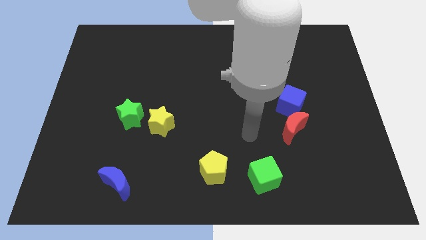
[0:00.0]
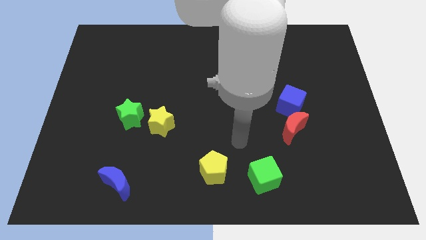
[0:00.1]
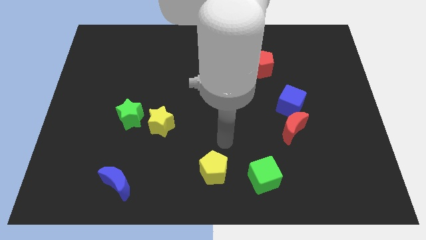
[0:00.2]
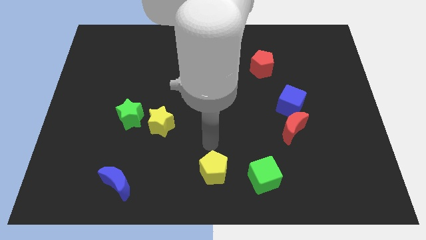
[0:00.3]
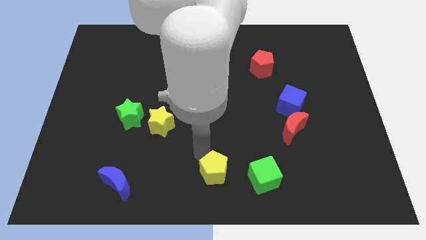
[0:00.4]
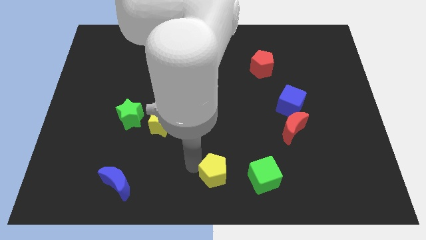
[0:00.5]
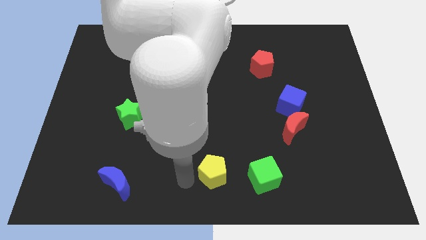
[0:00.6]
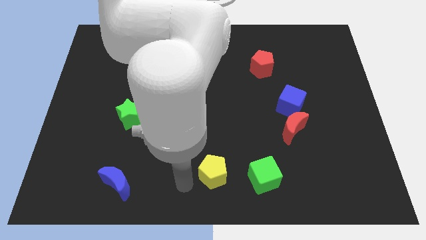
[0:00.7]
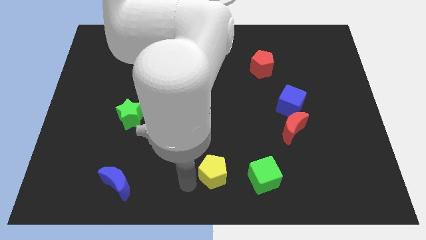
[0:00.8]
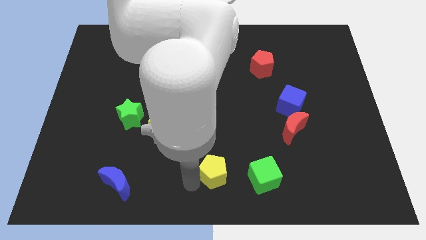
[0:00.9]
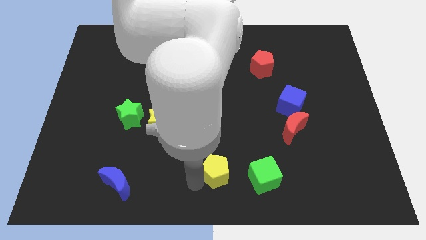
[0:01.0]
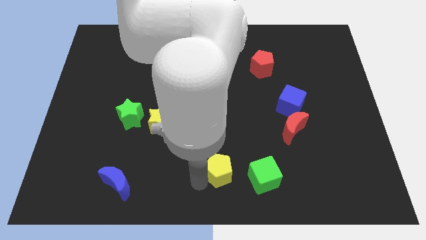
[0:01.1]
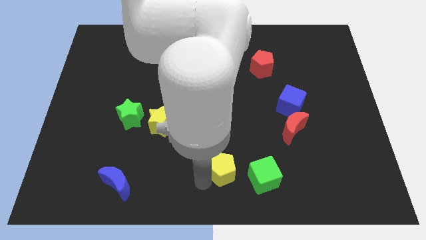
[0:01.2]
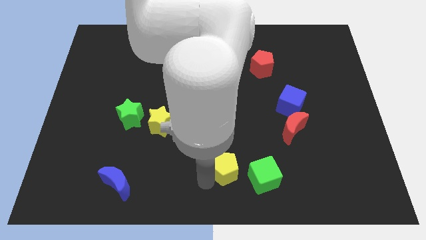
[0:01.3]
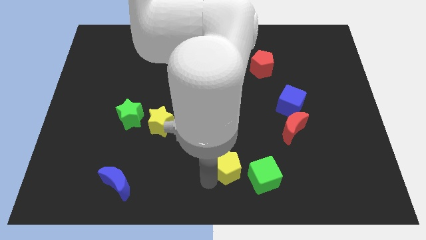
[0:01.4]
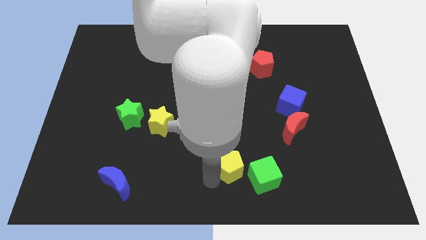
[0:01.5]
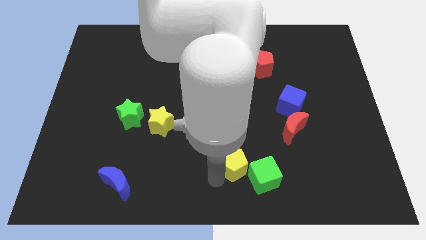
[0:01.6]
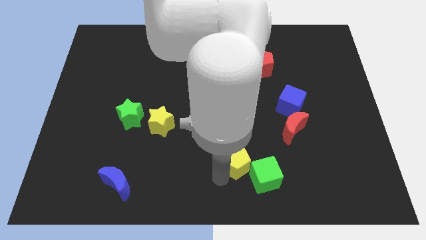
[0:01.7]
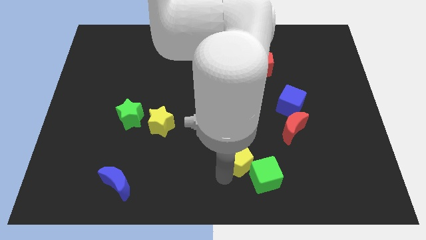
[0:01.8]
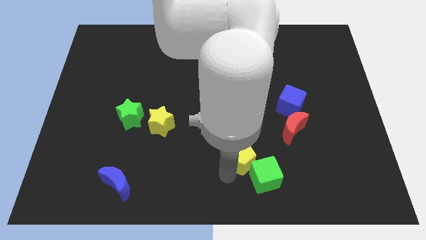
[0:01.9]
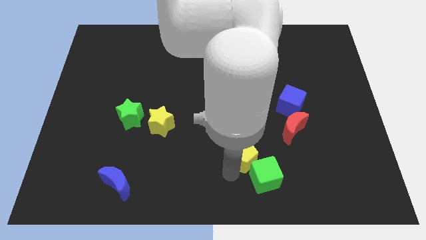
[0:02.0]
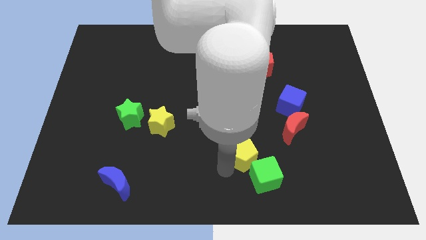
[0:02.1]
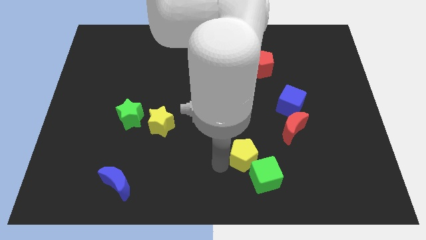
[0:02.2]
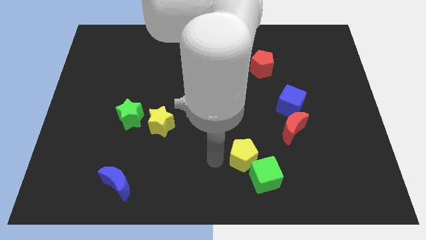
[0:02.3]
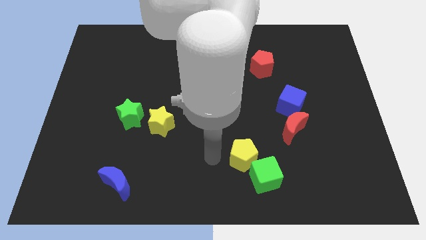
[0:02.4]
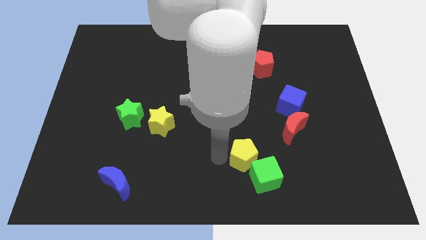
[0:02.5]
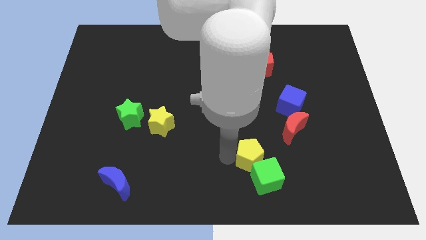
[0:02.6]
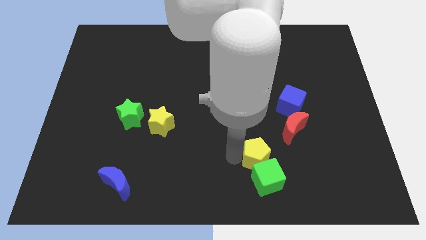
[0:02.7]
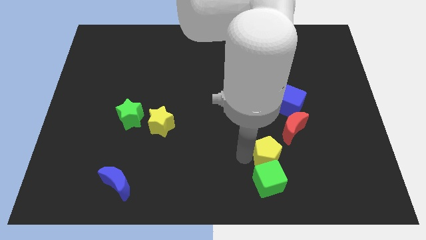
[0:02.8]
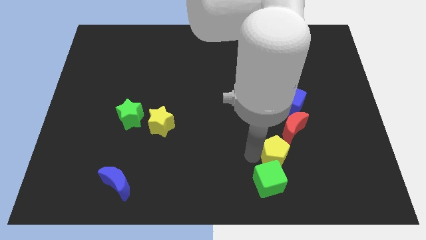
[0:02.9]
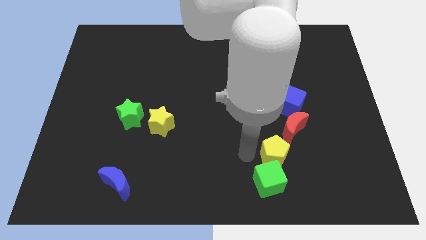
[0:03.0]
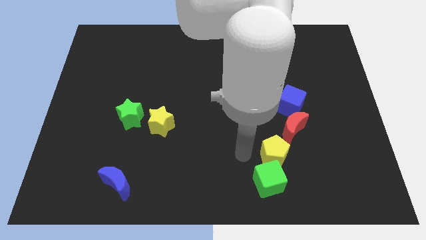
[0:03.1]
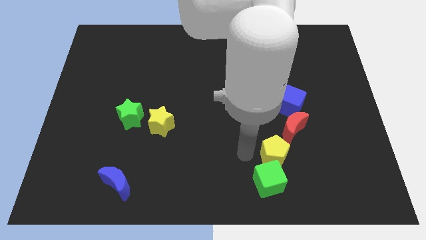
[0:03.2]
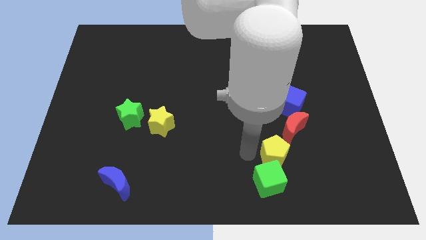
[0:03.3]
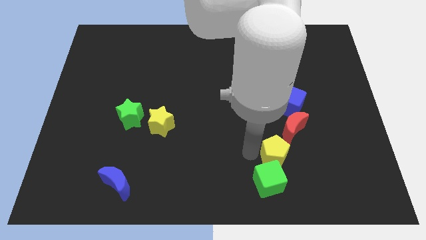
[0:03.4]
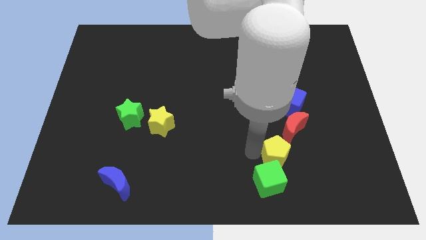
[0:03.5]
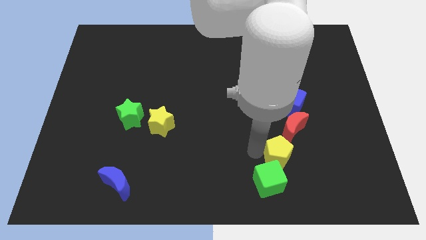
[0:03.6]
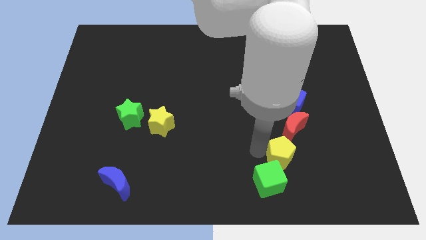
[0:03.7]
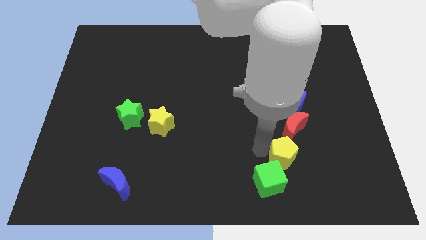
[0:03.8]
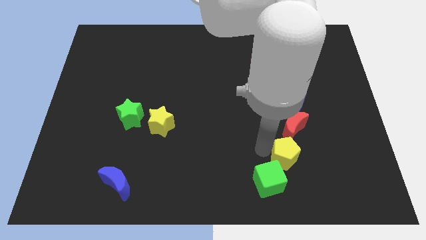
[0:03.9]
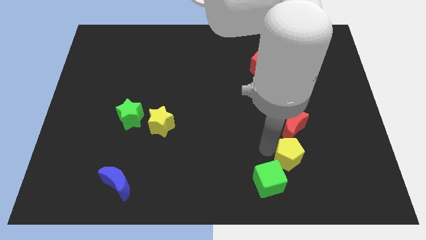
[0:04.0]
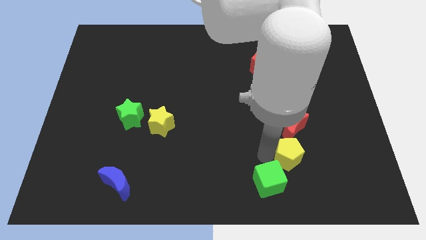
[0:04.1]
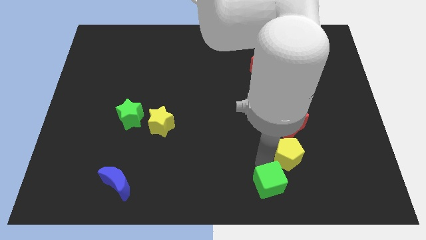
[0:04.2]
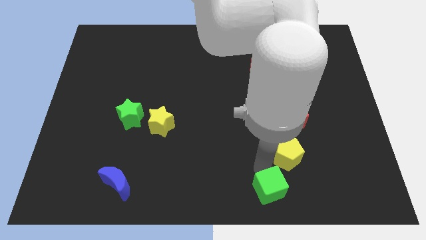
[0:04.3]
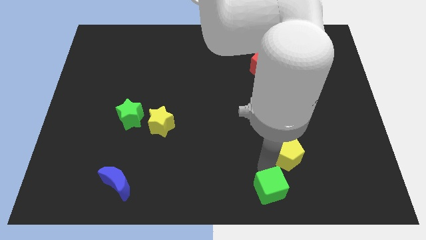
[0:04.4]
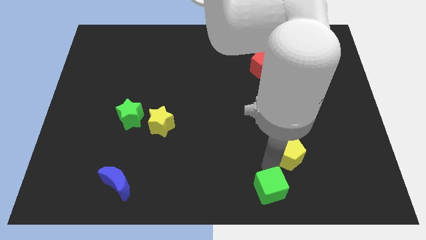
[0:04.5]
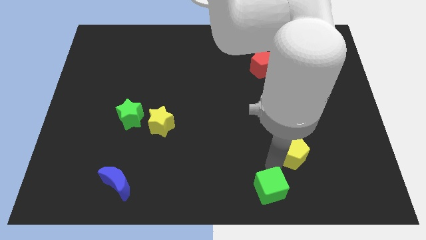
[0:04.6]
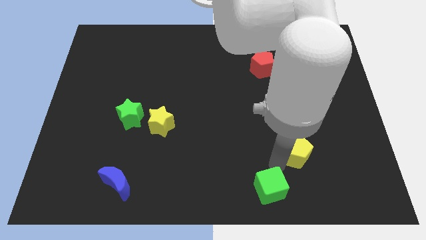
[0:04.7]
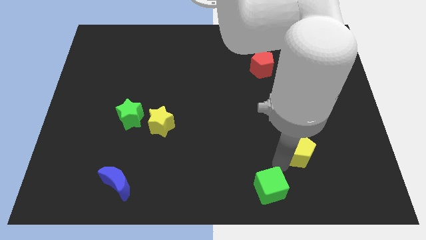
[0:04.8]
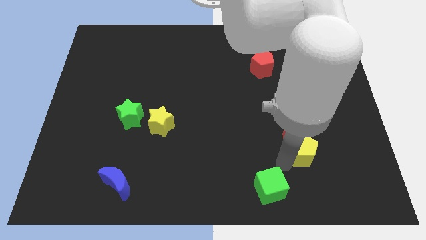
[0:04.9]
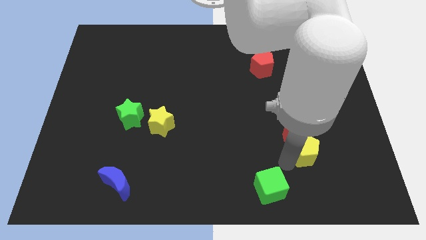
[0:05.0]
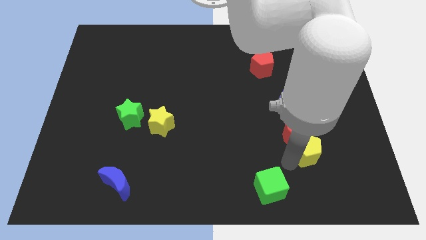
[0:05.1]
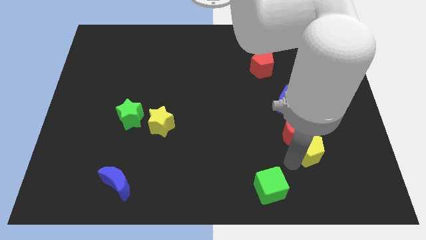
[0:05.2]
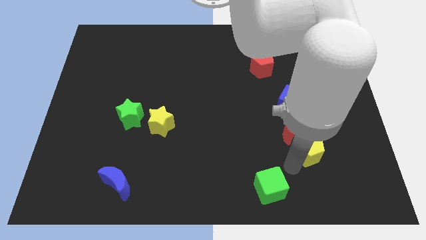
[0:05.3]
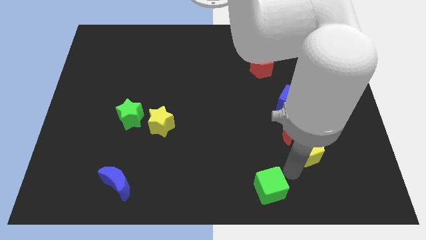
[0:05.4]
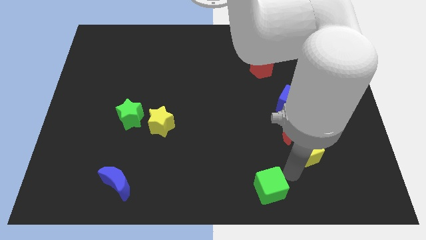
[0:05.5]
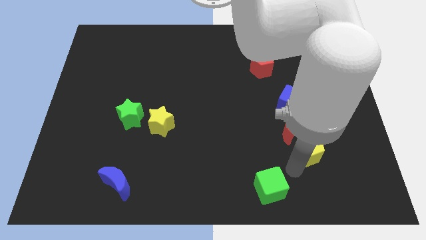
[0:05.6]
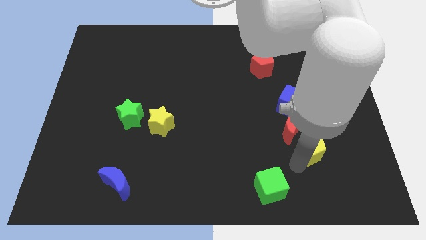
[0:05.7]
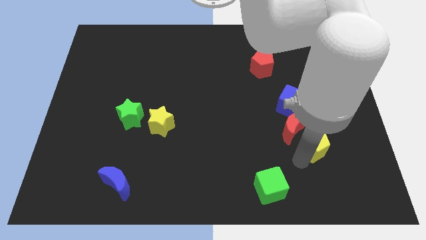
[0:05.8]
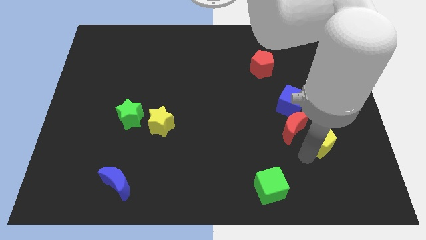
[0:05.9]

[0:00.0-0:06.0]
slide the yellow pentagon diagonally down and to the right of the blue cube
